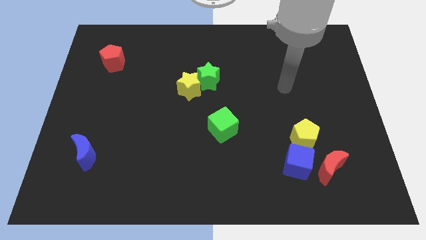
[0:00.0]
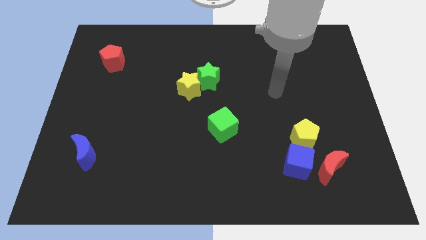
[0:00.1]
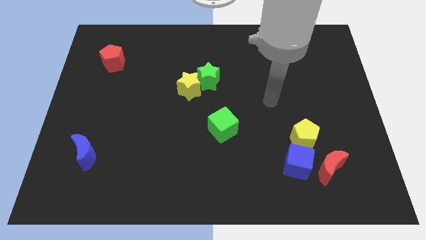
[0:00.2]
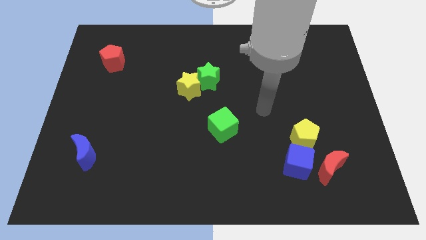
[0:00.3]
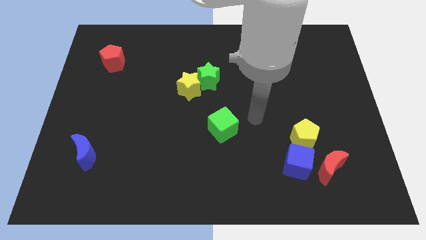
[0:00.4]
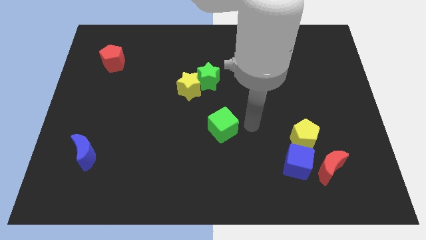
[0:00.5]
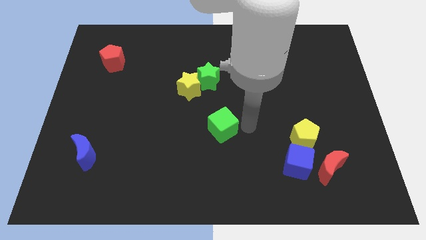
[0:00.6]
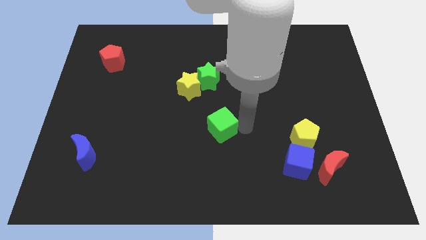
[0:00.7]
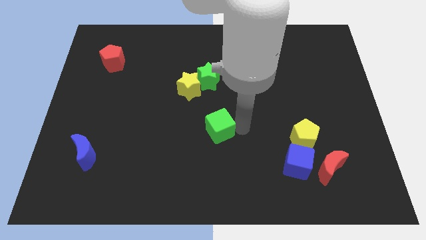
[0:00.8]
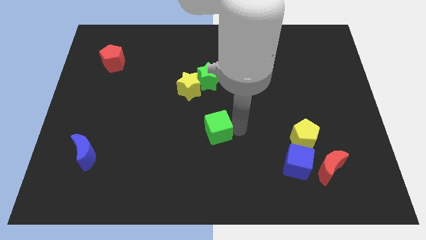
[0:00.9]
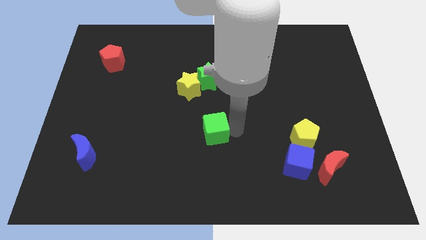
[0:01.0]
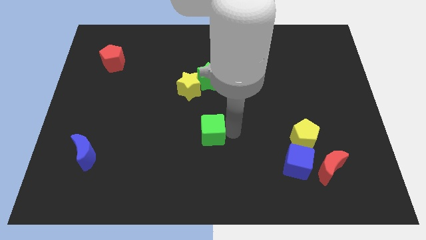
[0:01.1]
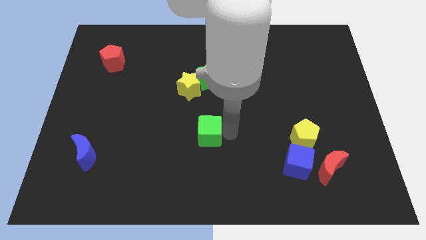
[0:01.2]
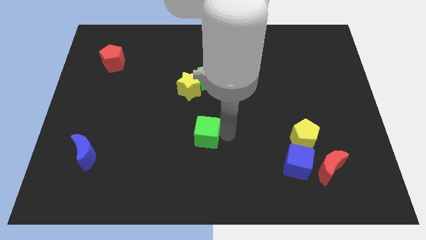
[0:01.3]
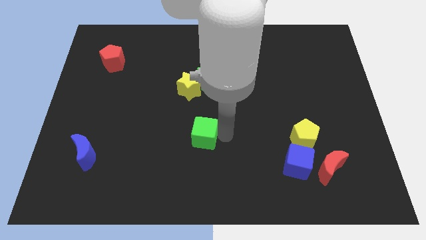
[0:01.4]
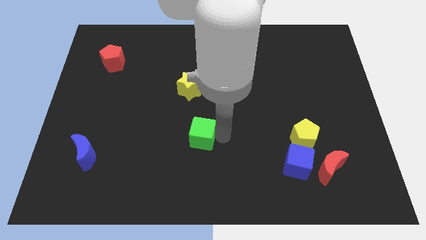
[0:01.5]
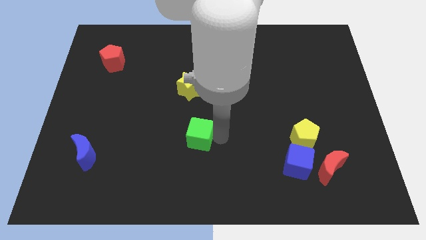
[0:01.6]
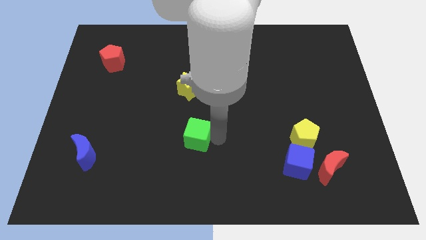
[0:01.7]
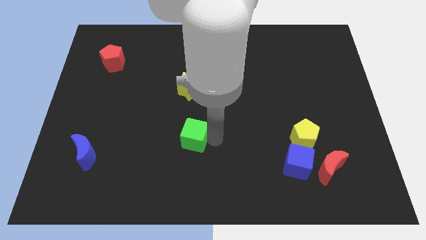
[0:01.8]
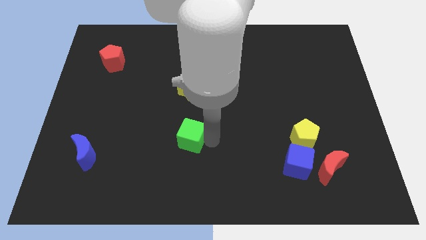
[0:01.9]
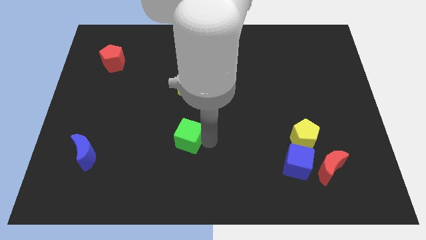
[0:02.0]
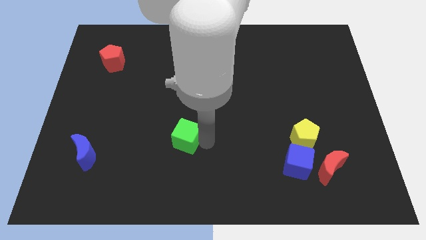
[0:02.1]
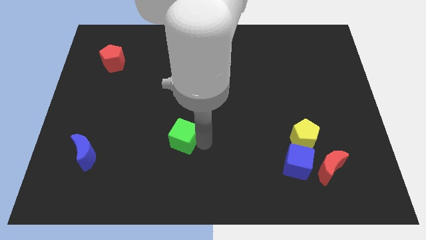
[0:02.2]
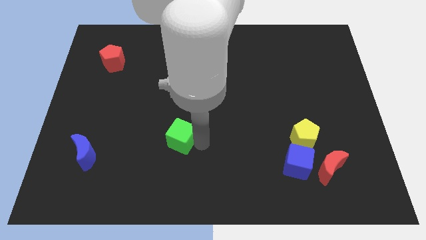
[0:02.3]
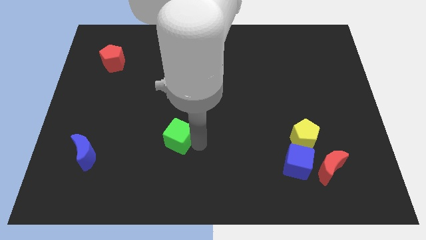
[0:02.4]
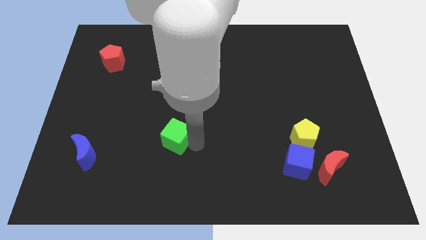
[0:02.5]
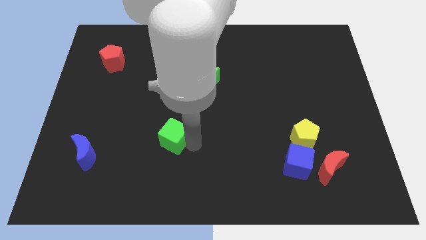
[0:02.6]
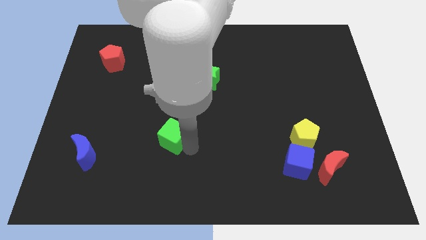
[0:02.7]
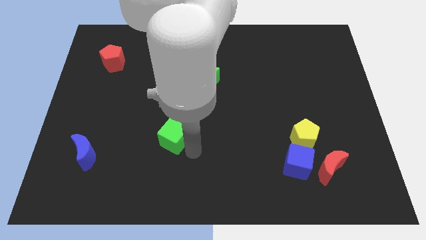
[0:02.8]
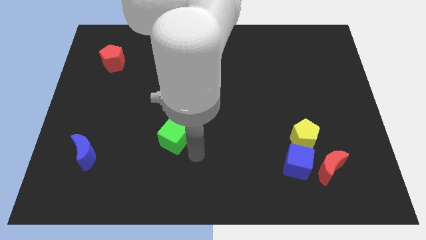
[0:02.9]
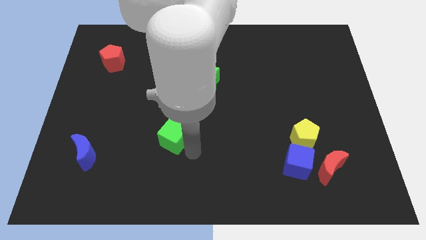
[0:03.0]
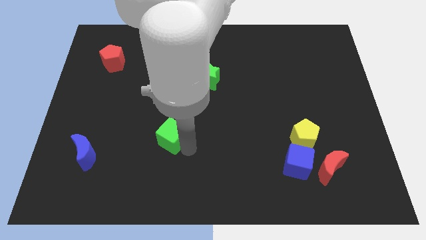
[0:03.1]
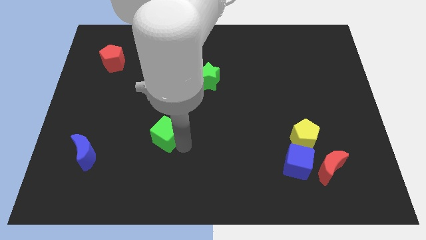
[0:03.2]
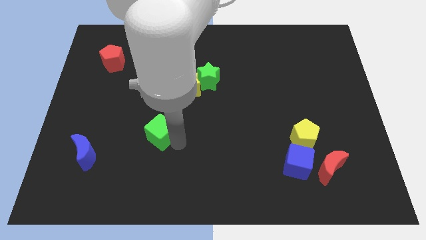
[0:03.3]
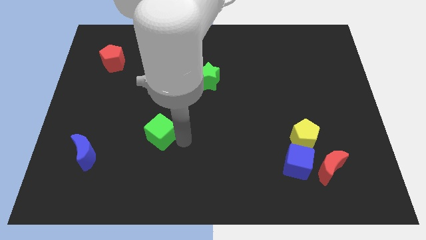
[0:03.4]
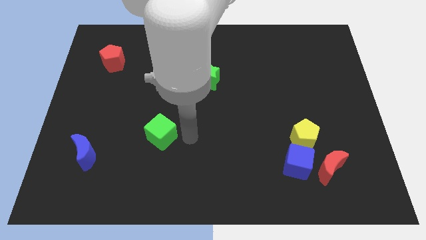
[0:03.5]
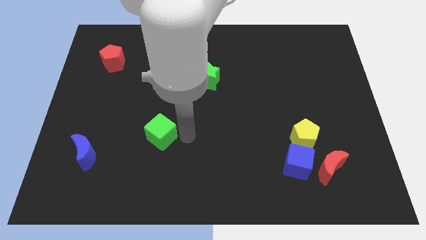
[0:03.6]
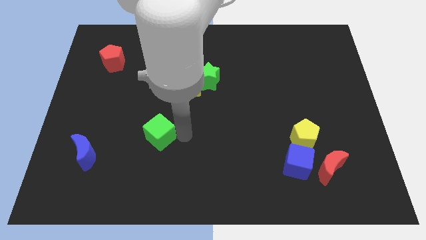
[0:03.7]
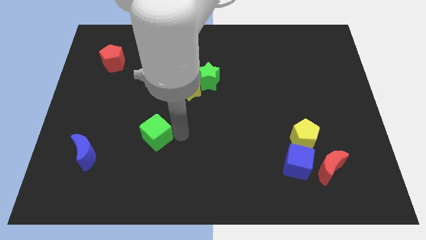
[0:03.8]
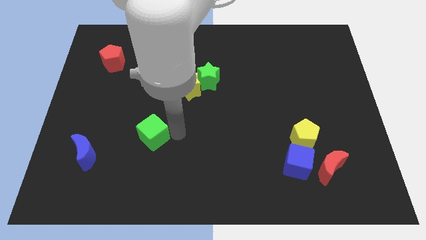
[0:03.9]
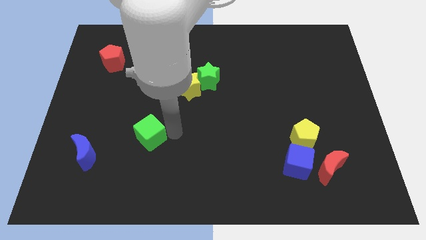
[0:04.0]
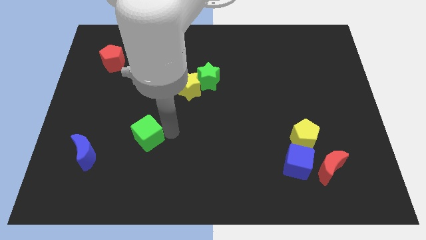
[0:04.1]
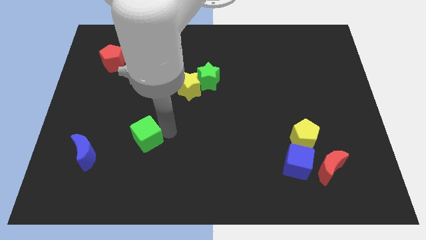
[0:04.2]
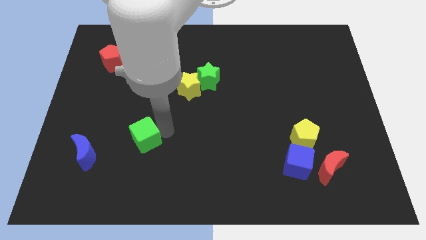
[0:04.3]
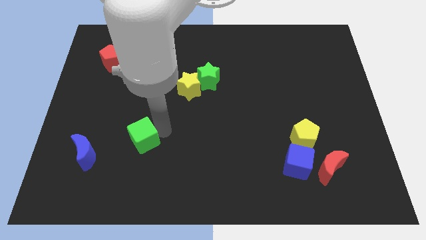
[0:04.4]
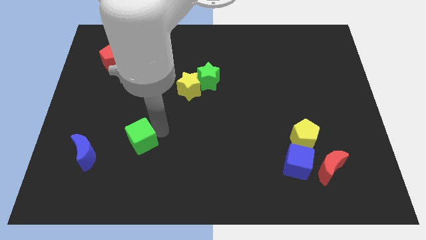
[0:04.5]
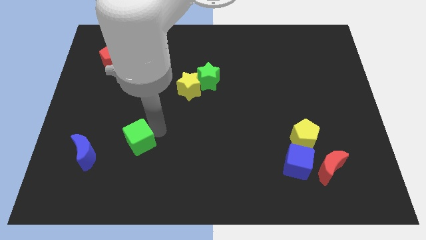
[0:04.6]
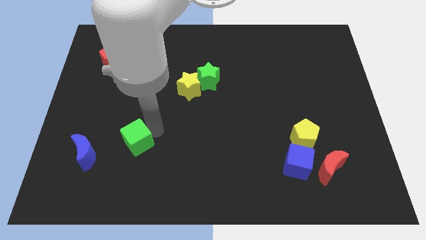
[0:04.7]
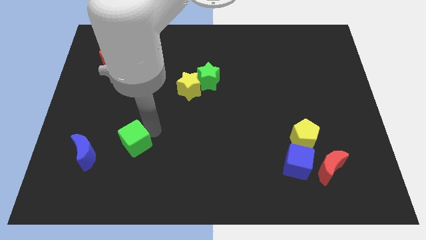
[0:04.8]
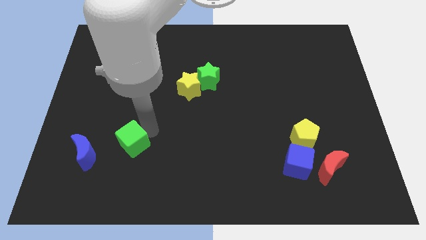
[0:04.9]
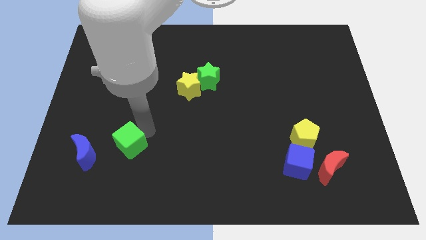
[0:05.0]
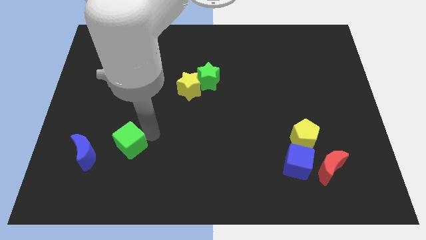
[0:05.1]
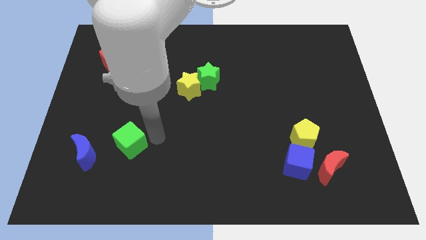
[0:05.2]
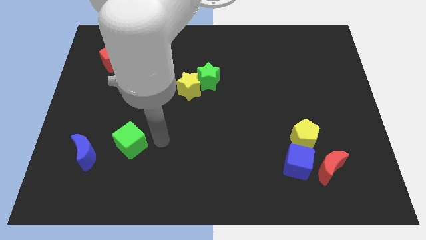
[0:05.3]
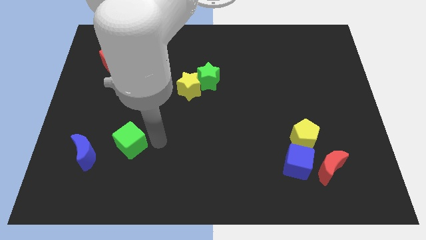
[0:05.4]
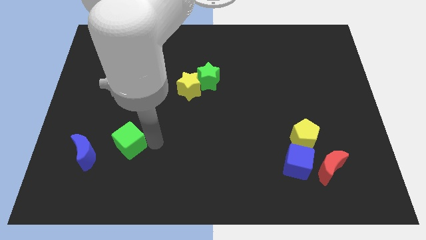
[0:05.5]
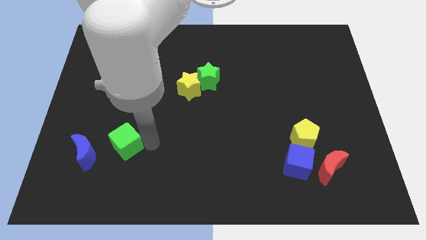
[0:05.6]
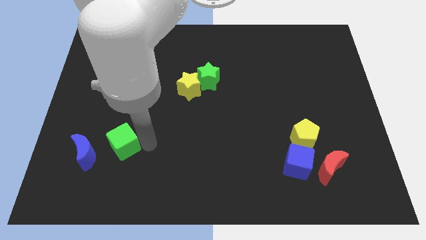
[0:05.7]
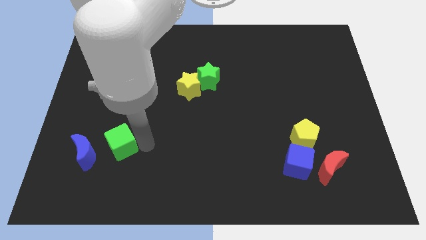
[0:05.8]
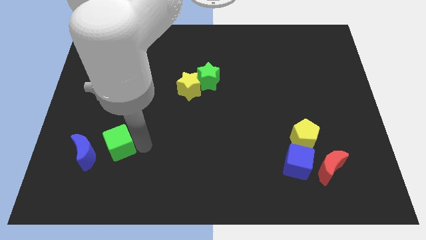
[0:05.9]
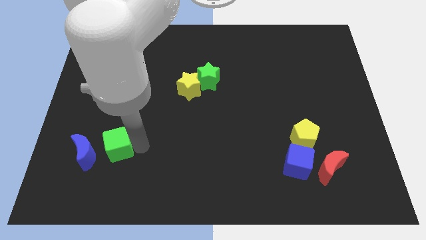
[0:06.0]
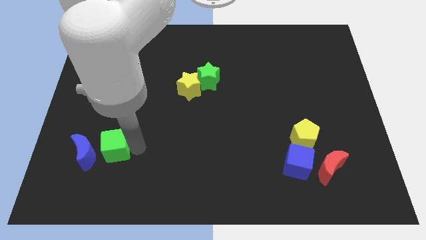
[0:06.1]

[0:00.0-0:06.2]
put the green cube close to the blue moon

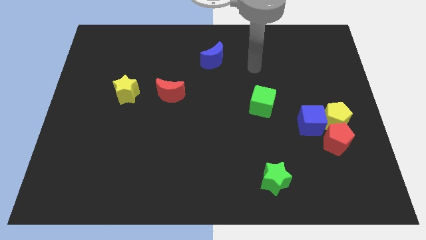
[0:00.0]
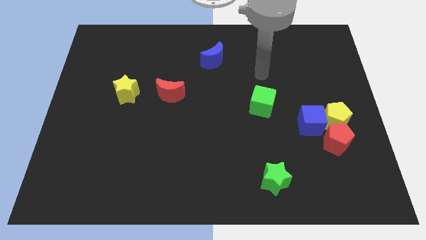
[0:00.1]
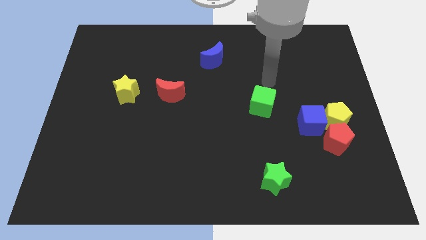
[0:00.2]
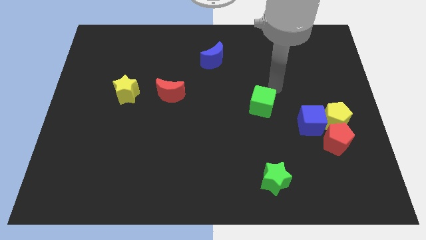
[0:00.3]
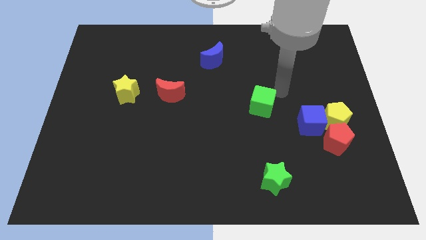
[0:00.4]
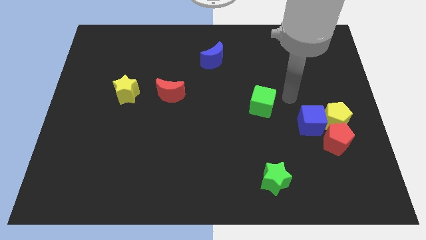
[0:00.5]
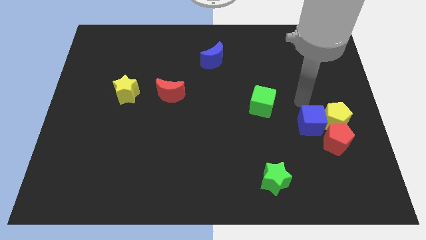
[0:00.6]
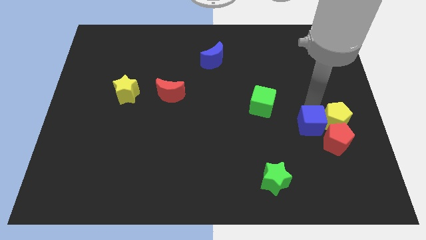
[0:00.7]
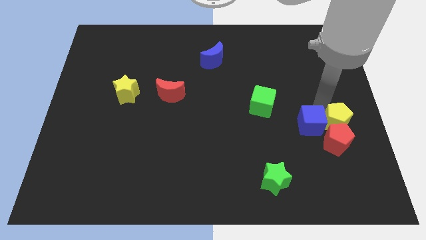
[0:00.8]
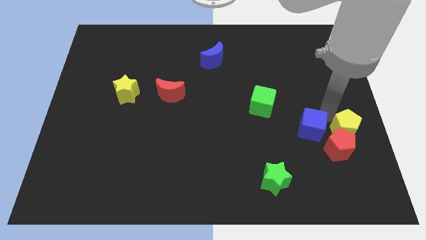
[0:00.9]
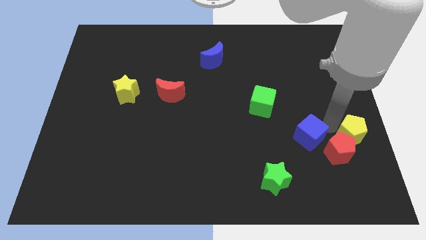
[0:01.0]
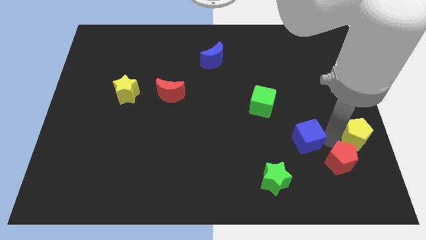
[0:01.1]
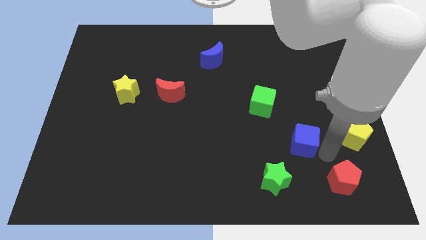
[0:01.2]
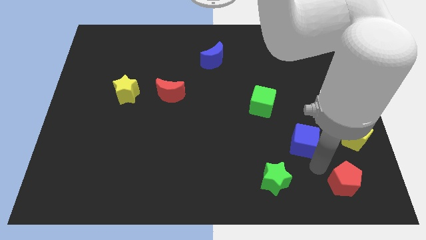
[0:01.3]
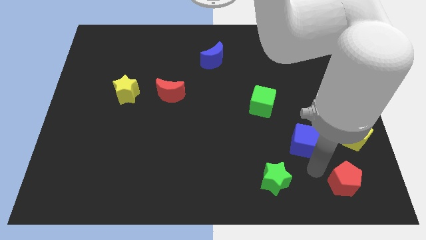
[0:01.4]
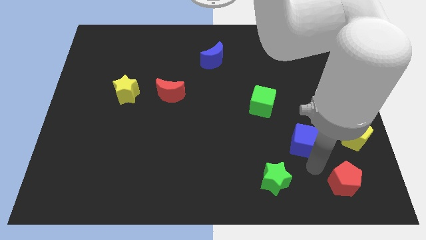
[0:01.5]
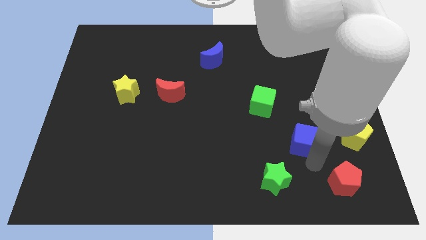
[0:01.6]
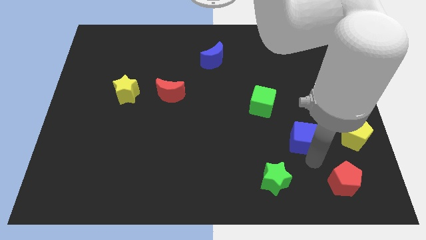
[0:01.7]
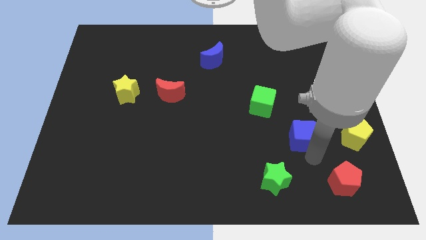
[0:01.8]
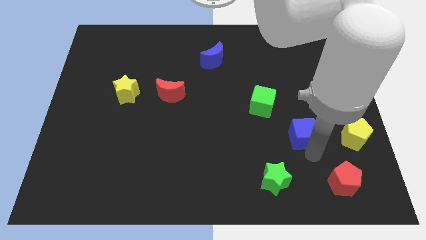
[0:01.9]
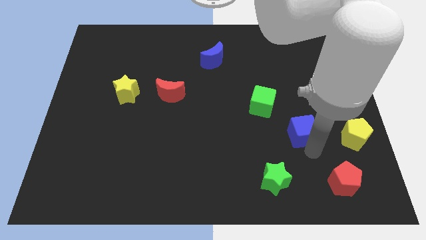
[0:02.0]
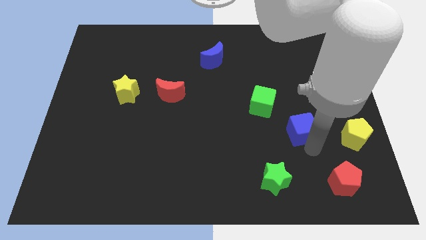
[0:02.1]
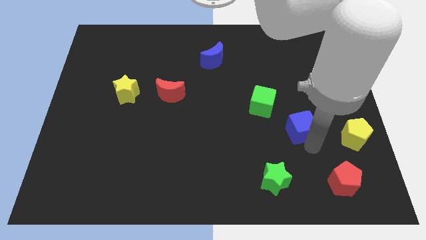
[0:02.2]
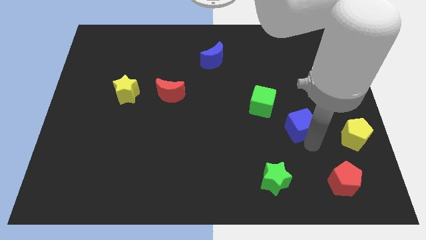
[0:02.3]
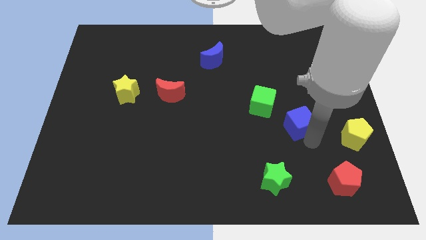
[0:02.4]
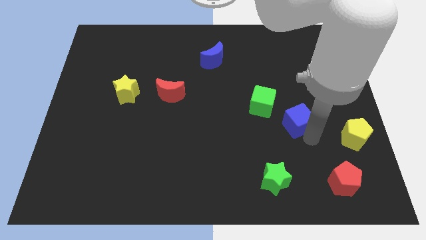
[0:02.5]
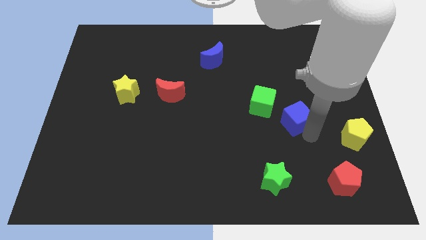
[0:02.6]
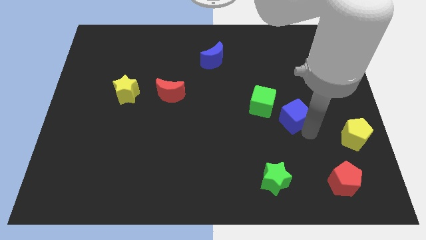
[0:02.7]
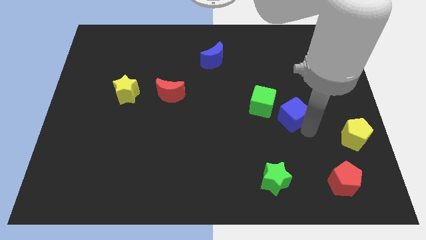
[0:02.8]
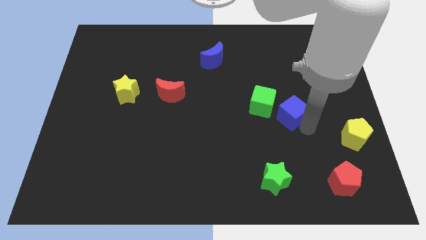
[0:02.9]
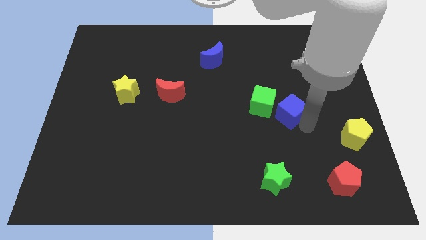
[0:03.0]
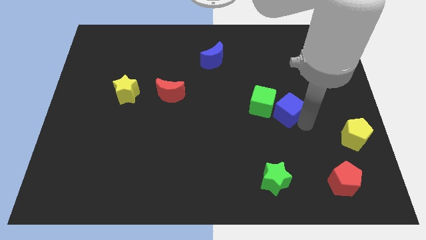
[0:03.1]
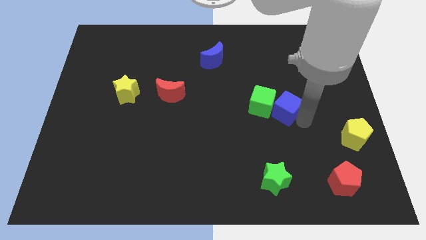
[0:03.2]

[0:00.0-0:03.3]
put the blue cube towards the green cube
